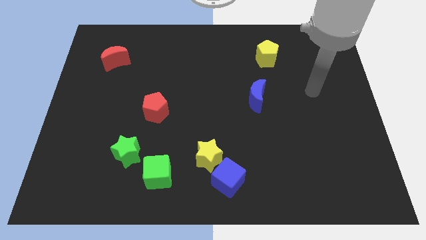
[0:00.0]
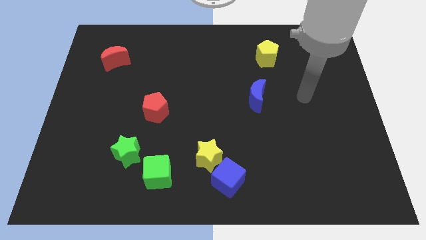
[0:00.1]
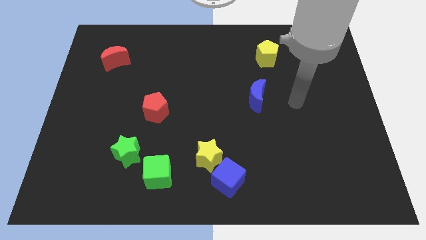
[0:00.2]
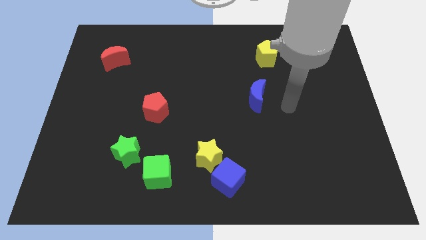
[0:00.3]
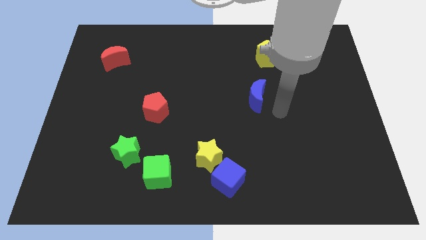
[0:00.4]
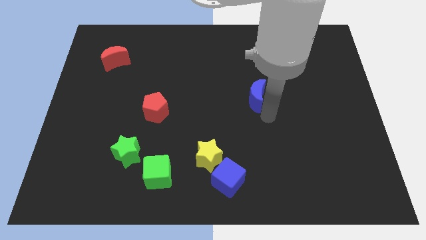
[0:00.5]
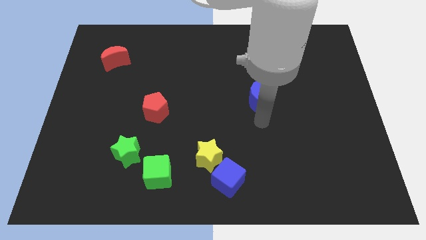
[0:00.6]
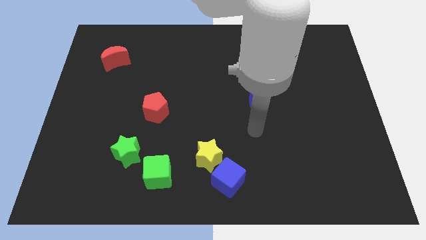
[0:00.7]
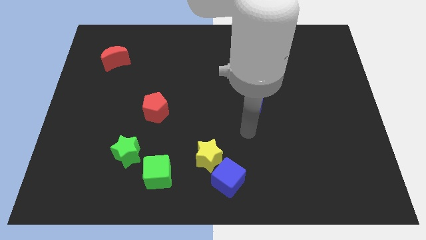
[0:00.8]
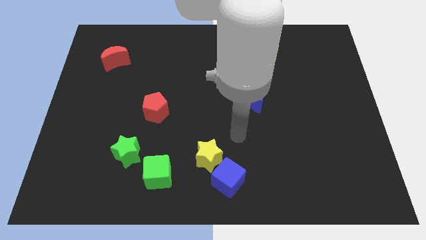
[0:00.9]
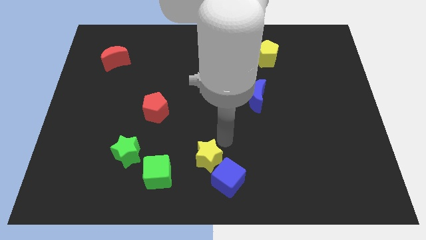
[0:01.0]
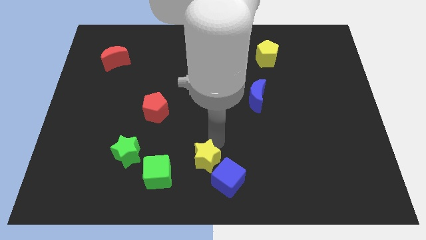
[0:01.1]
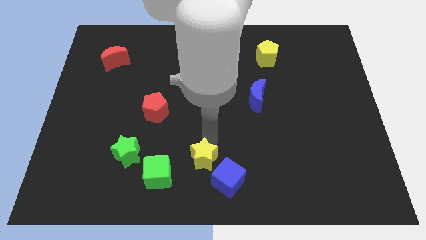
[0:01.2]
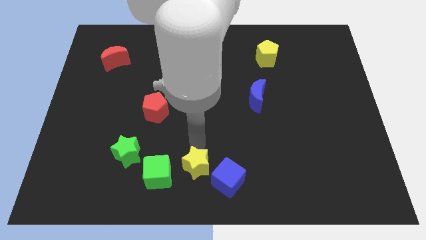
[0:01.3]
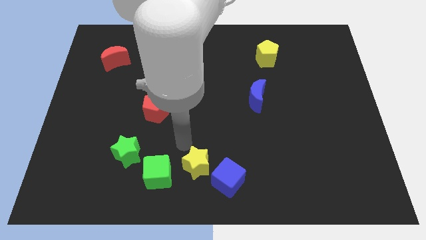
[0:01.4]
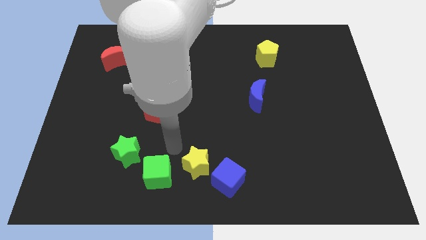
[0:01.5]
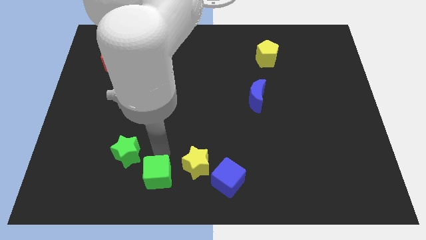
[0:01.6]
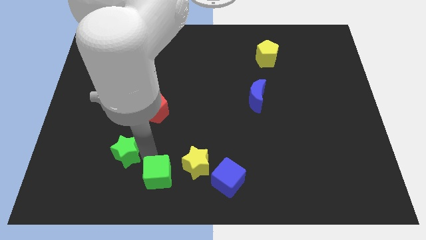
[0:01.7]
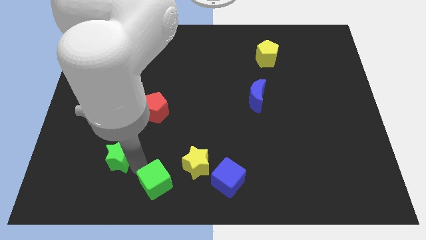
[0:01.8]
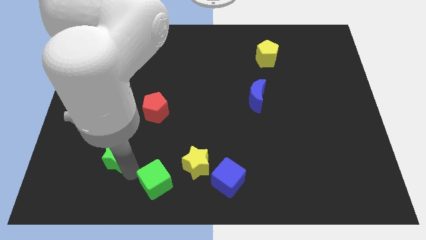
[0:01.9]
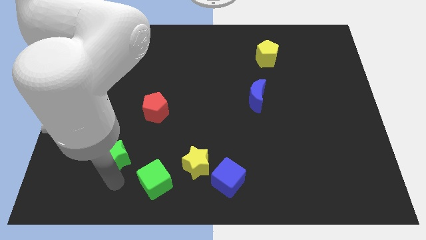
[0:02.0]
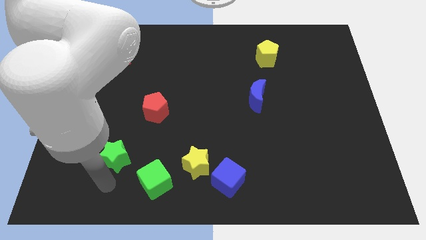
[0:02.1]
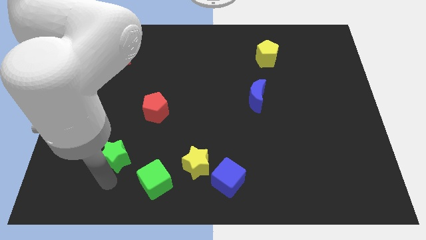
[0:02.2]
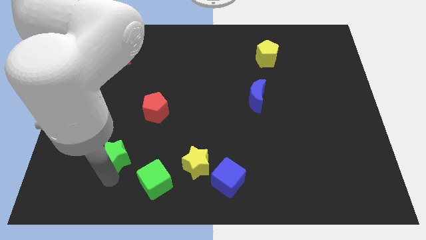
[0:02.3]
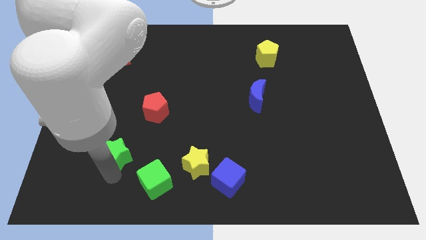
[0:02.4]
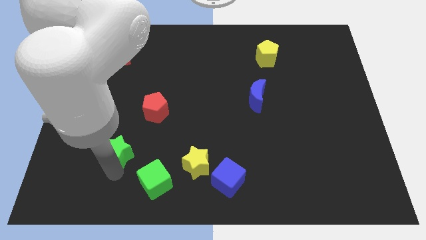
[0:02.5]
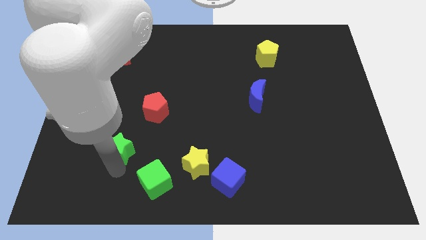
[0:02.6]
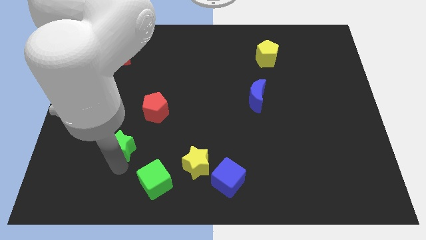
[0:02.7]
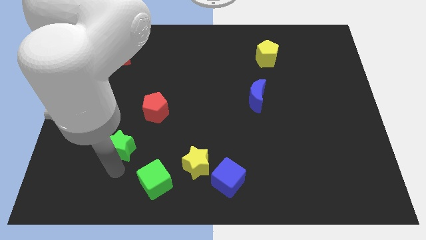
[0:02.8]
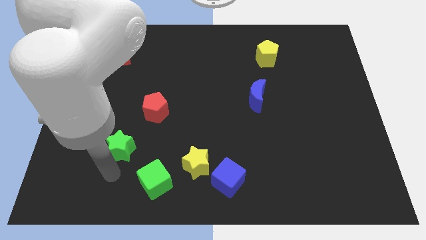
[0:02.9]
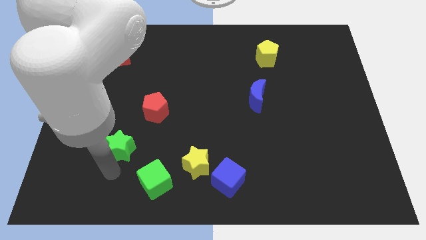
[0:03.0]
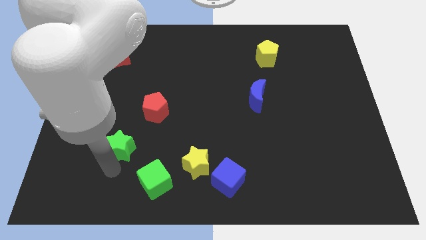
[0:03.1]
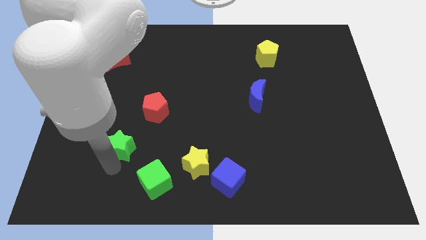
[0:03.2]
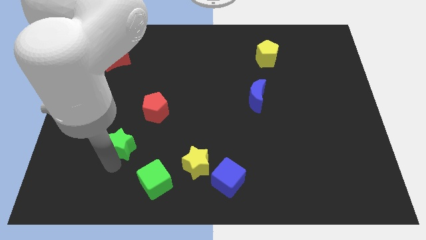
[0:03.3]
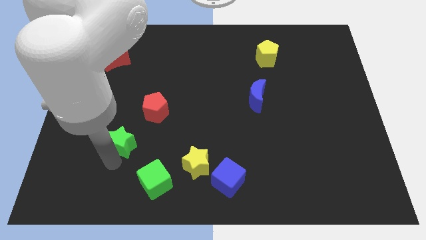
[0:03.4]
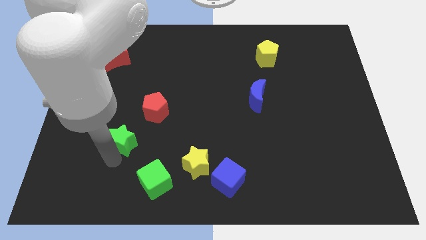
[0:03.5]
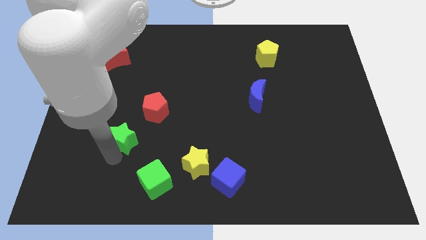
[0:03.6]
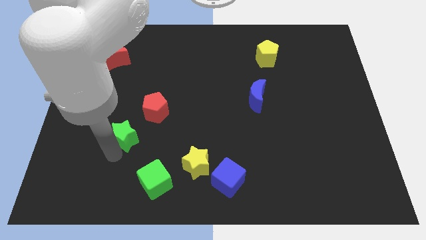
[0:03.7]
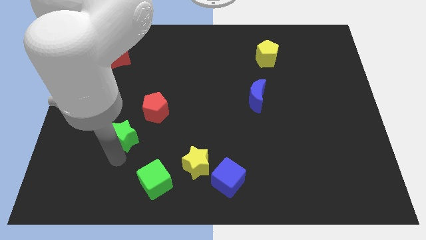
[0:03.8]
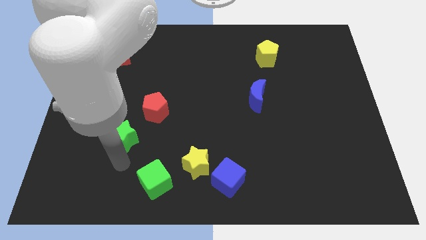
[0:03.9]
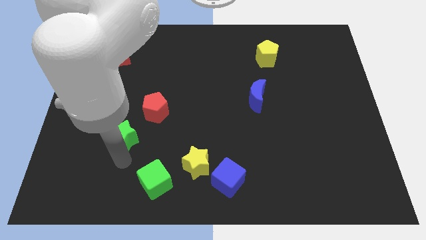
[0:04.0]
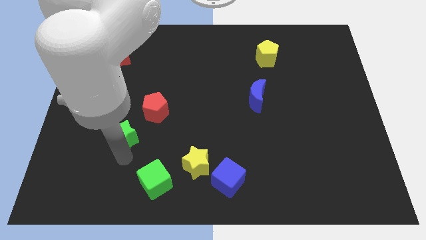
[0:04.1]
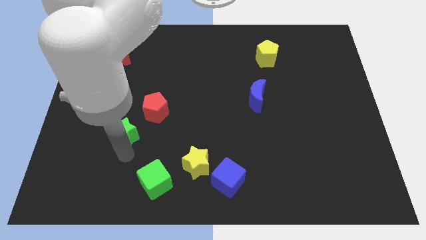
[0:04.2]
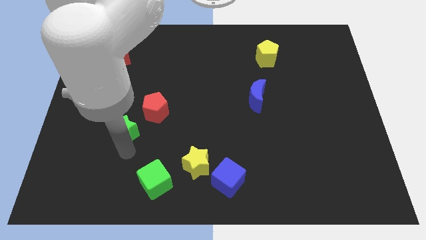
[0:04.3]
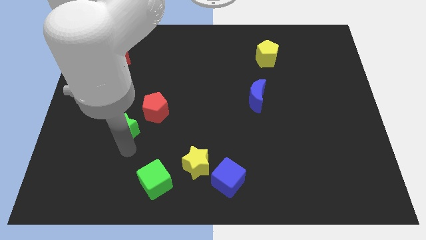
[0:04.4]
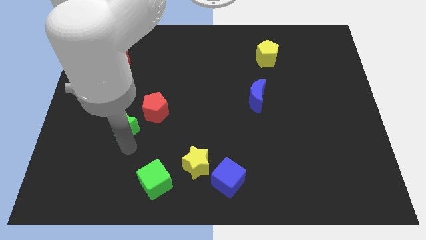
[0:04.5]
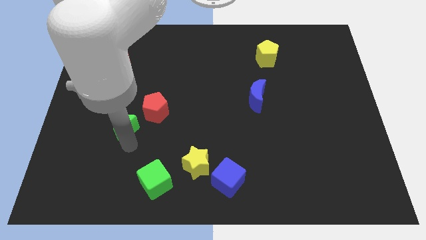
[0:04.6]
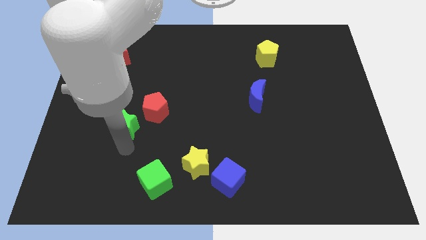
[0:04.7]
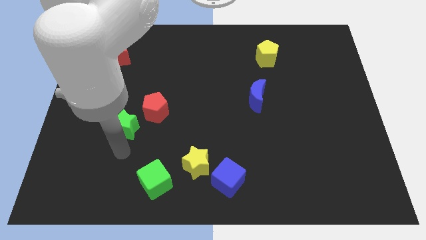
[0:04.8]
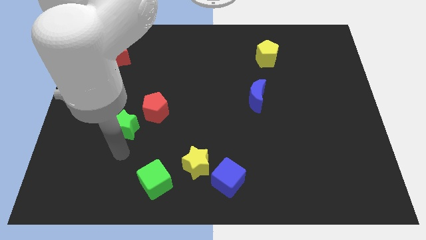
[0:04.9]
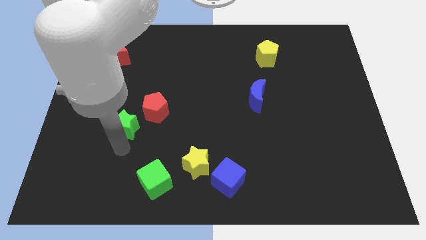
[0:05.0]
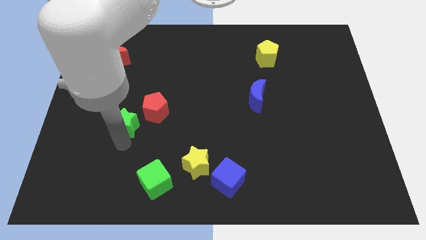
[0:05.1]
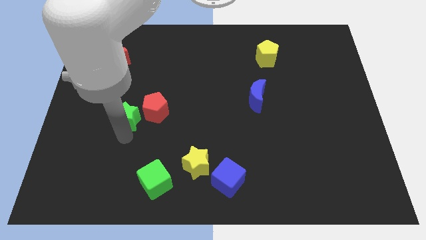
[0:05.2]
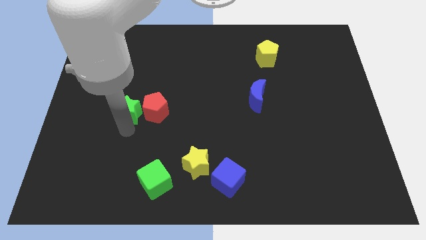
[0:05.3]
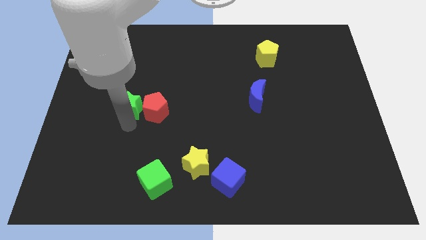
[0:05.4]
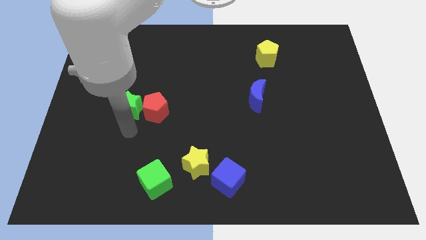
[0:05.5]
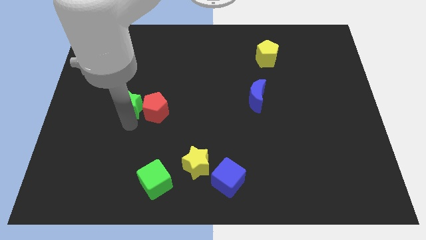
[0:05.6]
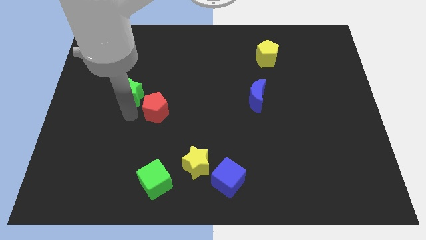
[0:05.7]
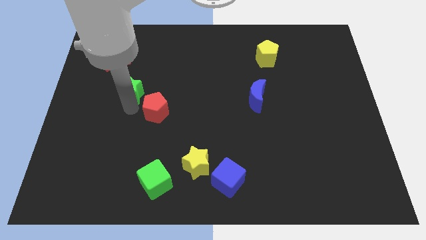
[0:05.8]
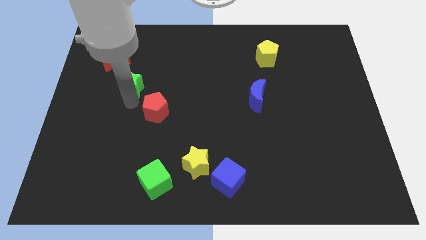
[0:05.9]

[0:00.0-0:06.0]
move the green star diagonally down and to the right of the red moon
